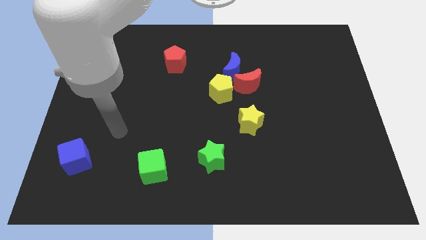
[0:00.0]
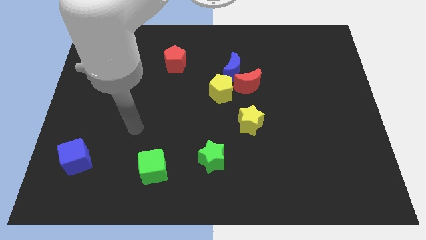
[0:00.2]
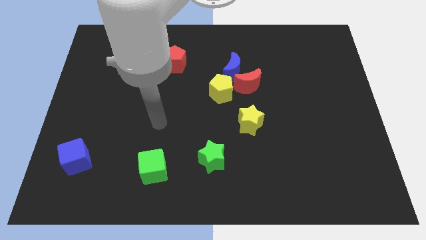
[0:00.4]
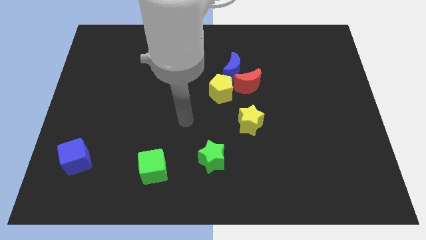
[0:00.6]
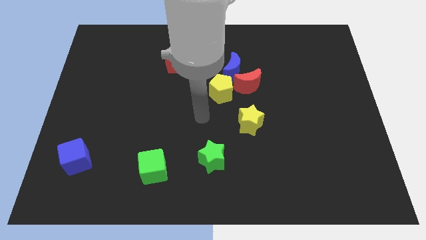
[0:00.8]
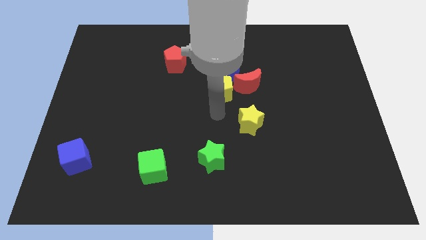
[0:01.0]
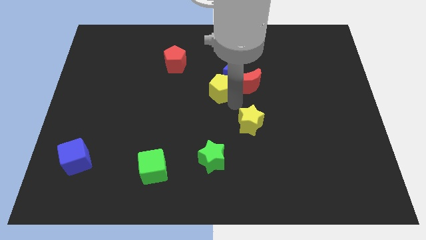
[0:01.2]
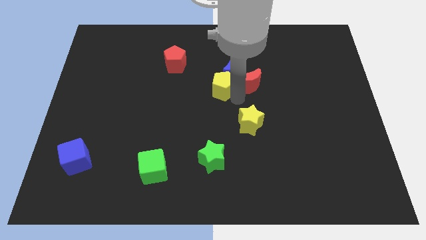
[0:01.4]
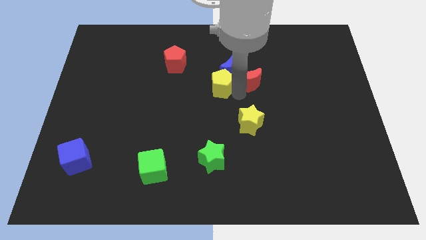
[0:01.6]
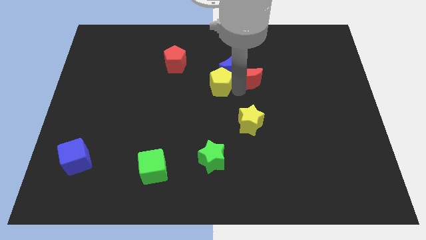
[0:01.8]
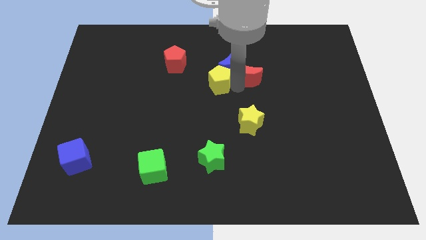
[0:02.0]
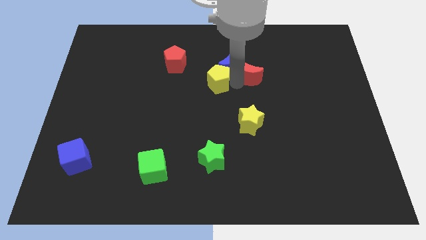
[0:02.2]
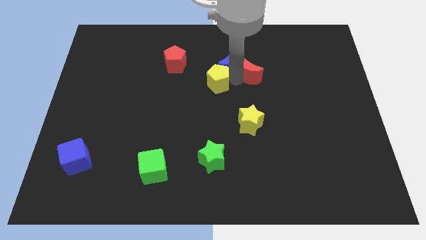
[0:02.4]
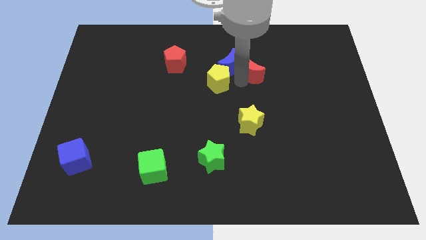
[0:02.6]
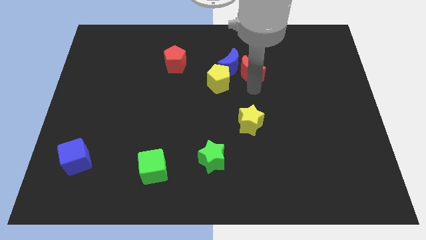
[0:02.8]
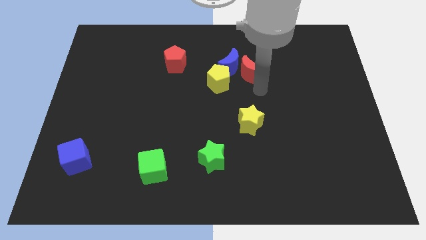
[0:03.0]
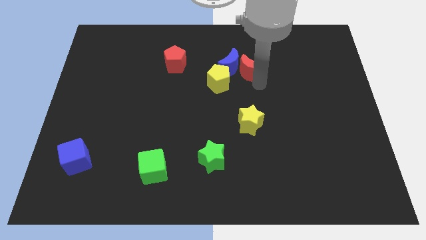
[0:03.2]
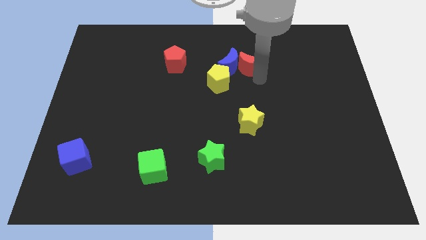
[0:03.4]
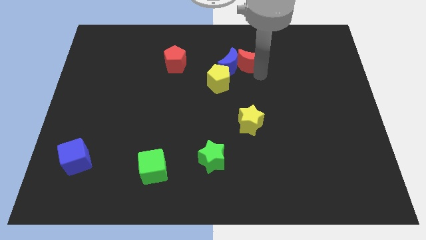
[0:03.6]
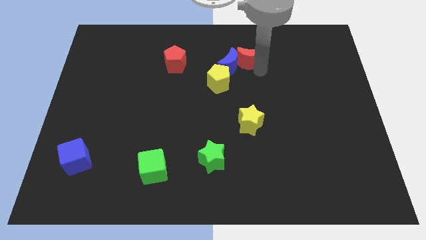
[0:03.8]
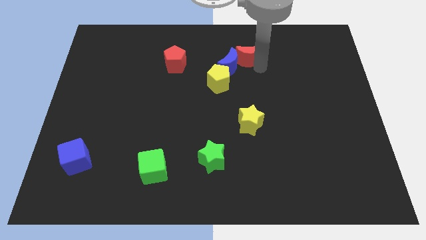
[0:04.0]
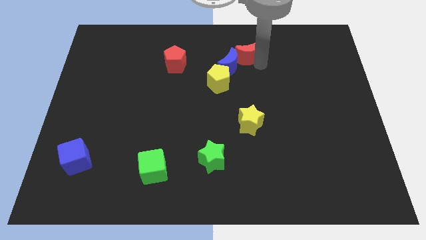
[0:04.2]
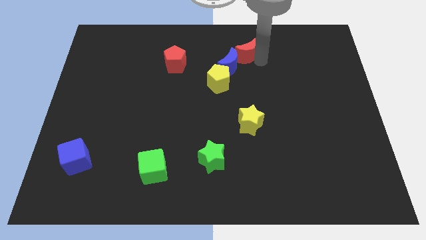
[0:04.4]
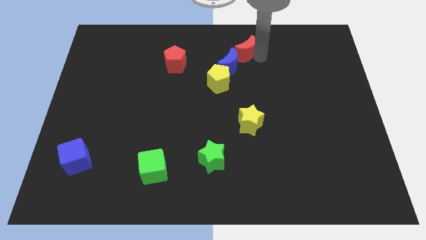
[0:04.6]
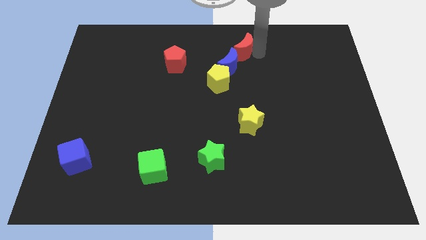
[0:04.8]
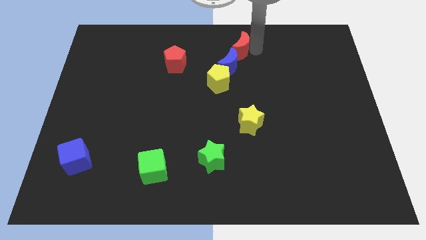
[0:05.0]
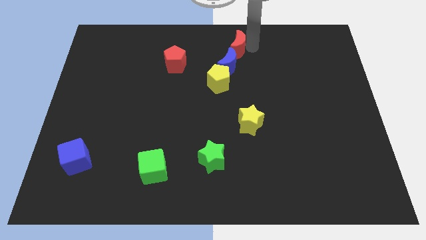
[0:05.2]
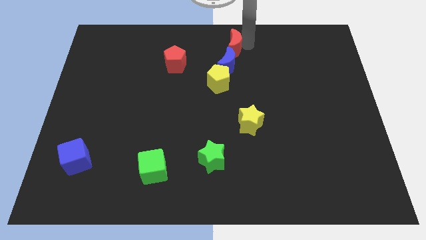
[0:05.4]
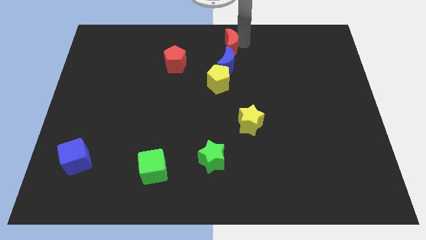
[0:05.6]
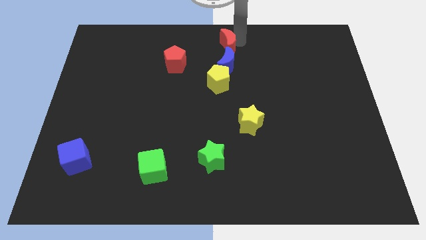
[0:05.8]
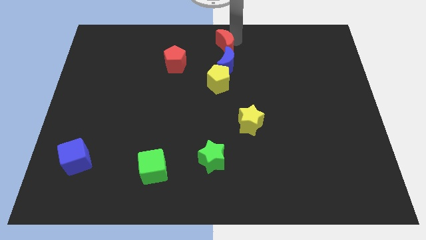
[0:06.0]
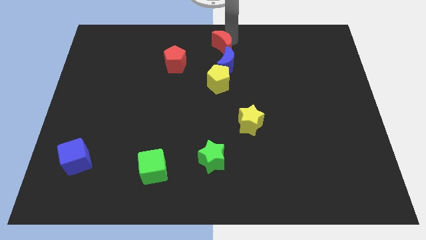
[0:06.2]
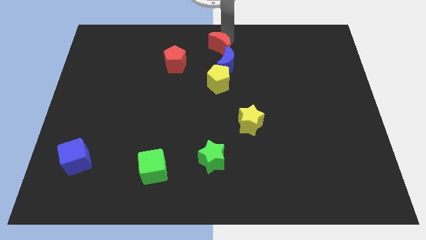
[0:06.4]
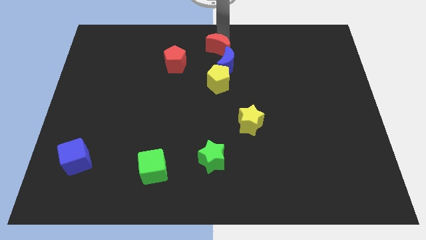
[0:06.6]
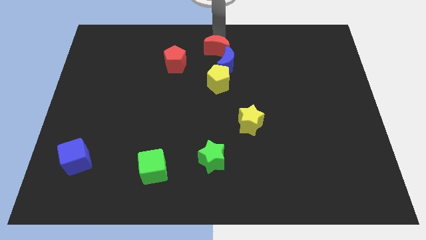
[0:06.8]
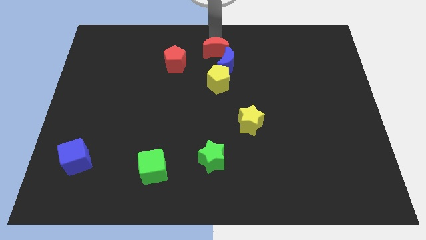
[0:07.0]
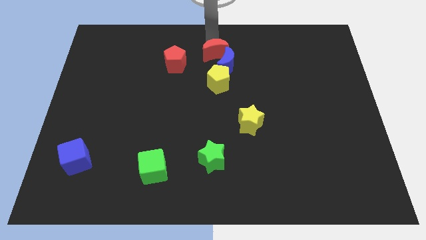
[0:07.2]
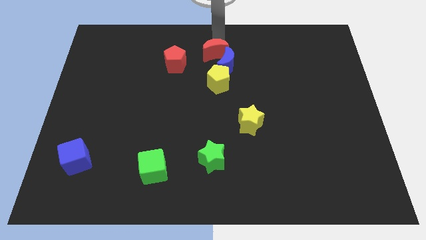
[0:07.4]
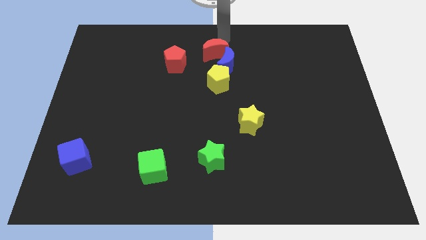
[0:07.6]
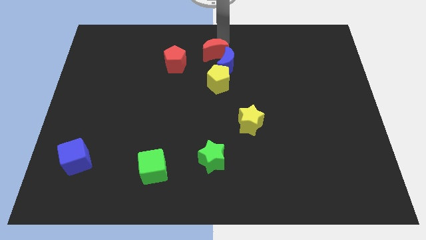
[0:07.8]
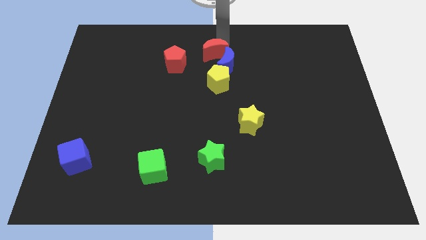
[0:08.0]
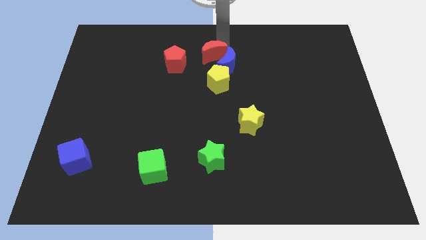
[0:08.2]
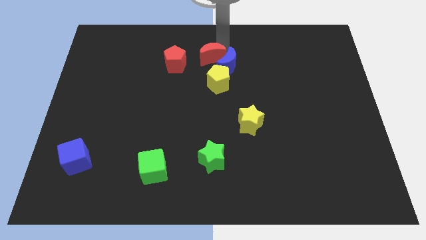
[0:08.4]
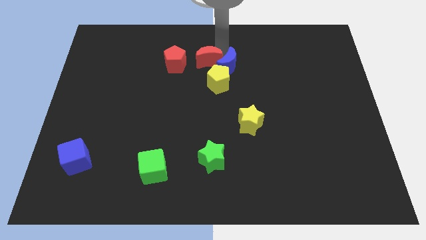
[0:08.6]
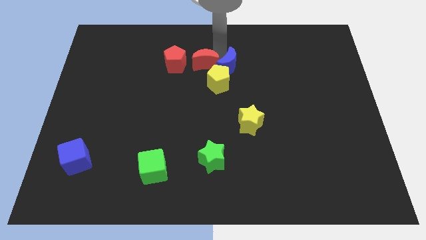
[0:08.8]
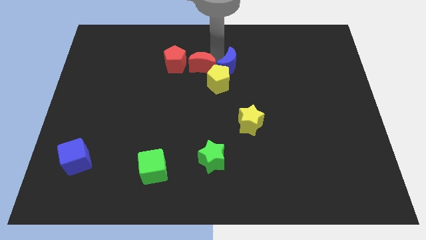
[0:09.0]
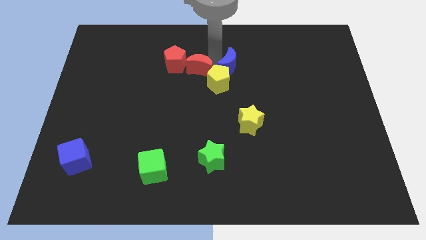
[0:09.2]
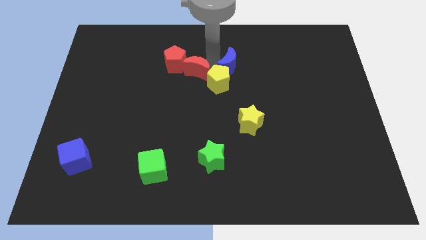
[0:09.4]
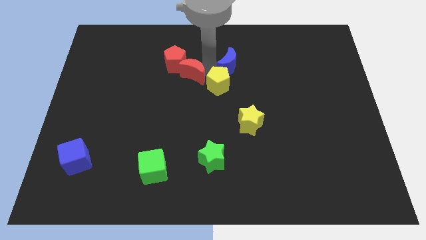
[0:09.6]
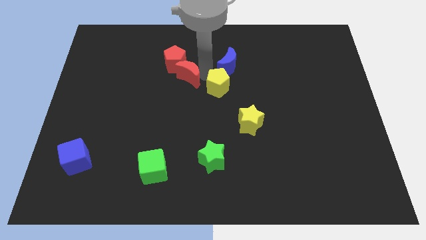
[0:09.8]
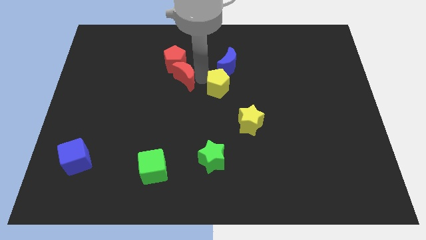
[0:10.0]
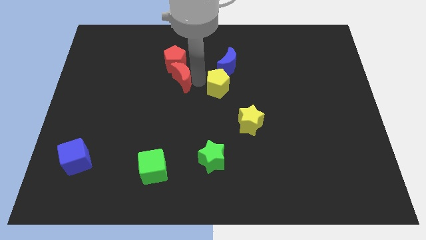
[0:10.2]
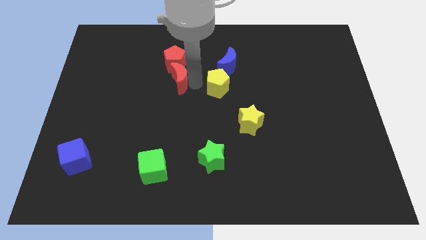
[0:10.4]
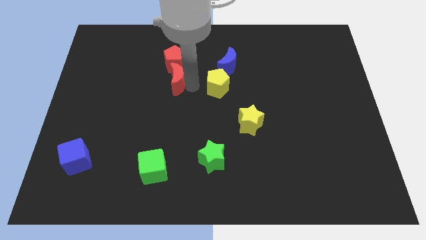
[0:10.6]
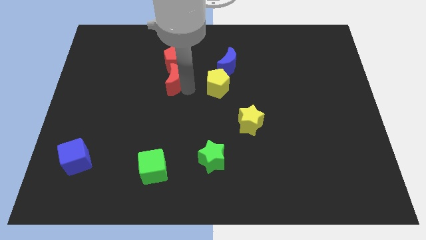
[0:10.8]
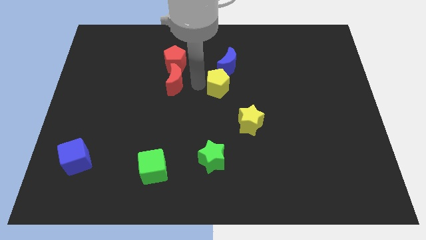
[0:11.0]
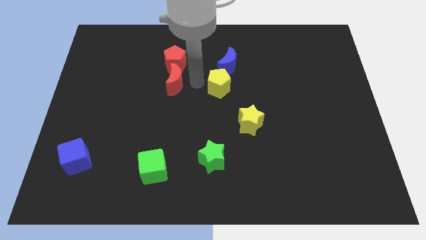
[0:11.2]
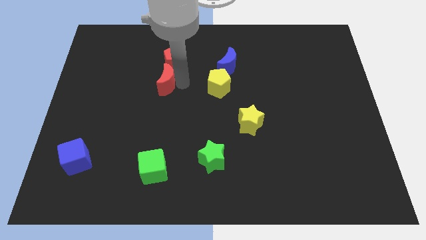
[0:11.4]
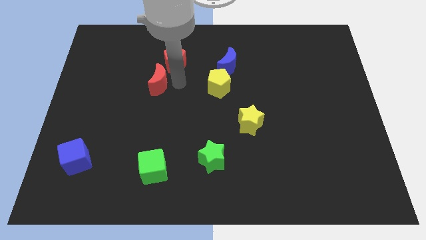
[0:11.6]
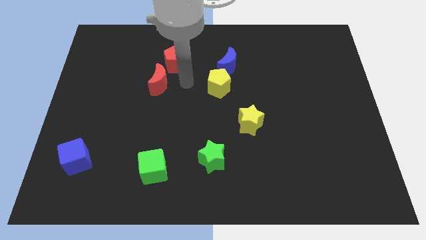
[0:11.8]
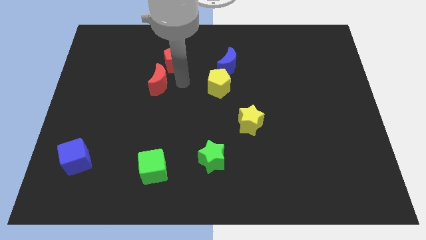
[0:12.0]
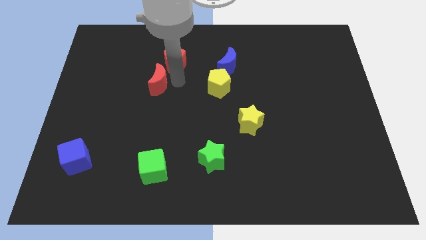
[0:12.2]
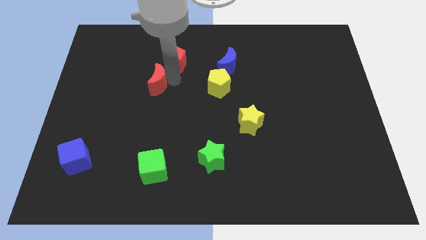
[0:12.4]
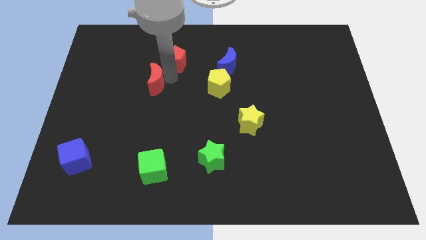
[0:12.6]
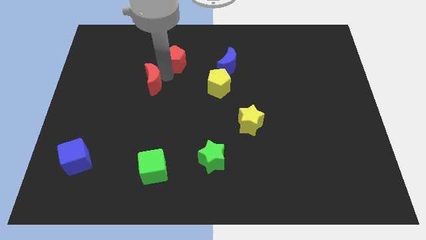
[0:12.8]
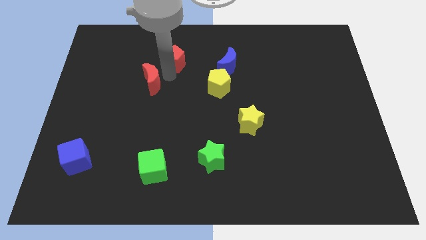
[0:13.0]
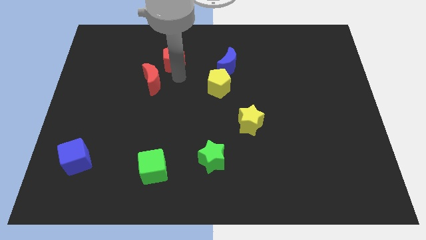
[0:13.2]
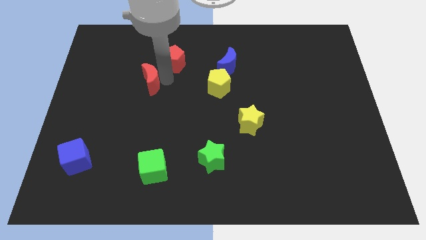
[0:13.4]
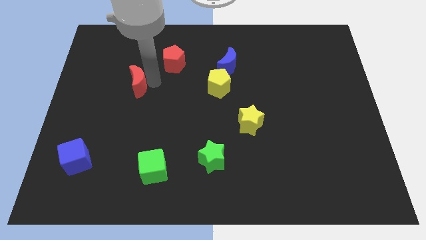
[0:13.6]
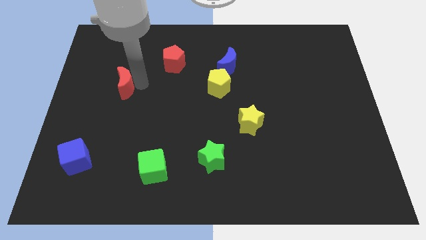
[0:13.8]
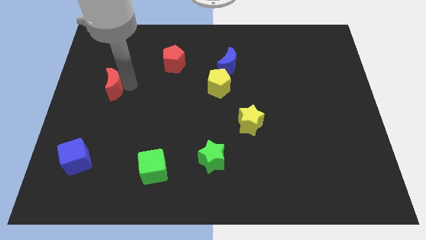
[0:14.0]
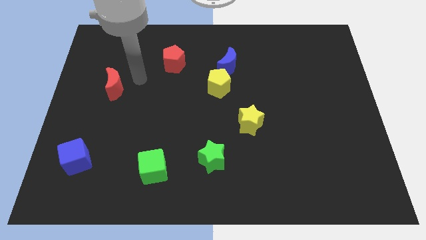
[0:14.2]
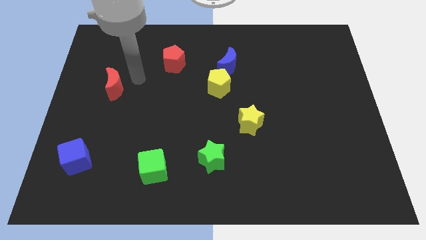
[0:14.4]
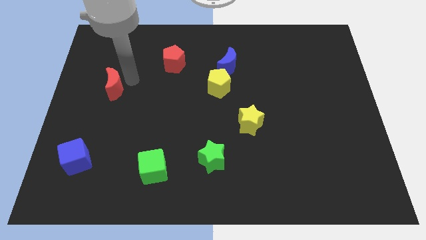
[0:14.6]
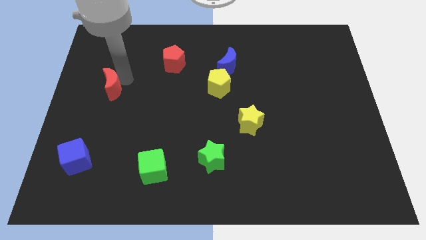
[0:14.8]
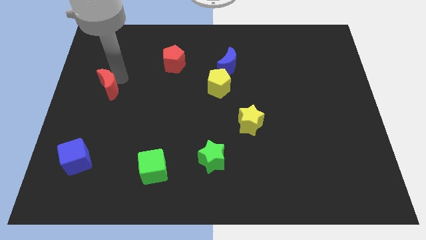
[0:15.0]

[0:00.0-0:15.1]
push the red moon to the left side
